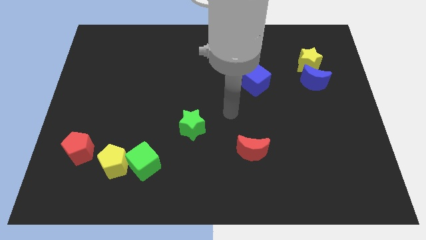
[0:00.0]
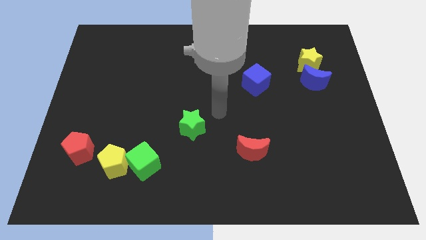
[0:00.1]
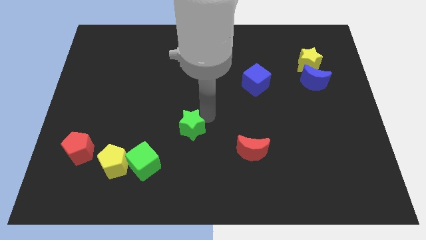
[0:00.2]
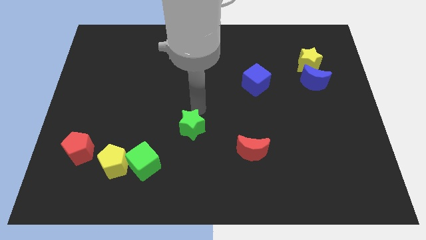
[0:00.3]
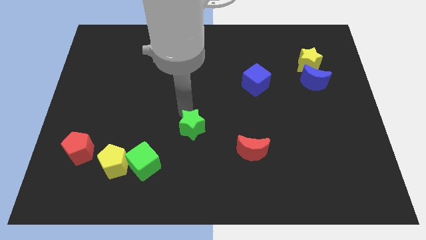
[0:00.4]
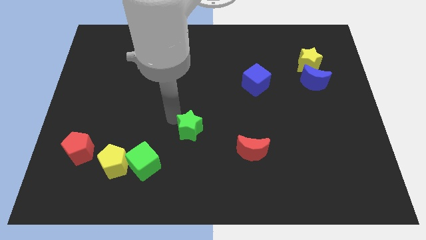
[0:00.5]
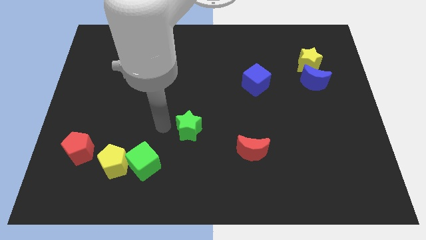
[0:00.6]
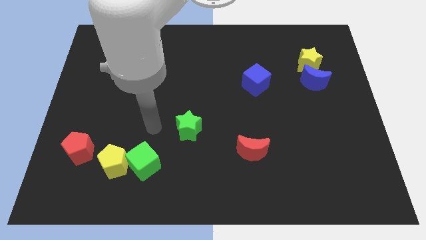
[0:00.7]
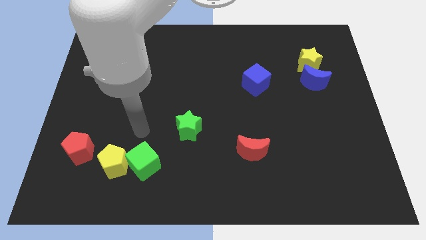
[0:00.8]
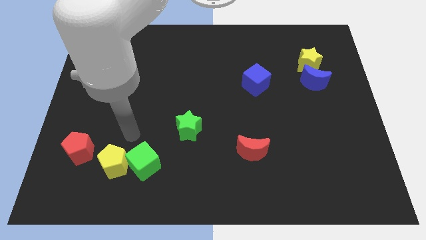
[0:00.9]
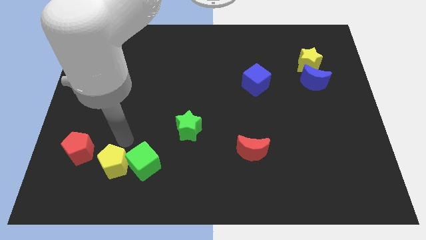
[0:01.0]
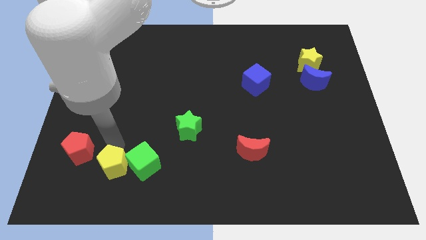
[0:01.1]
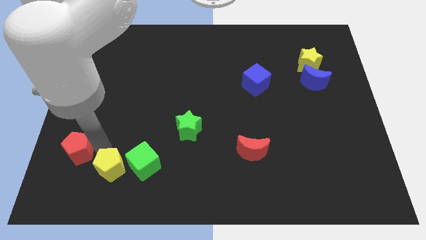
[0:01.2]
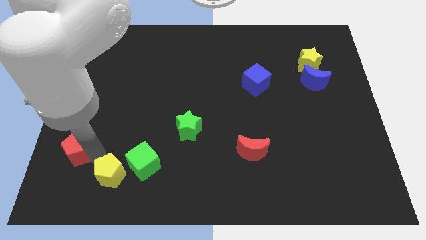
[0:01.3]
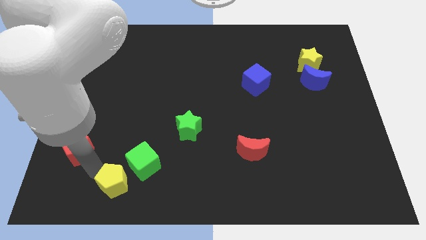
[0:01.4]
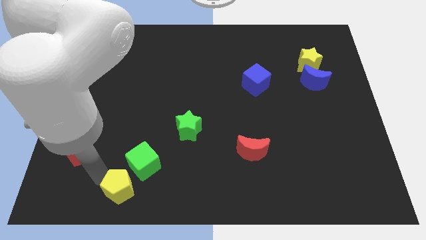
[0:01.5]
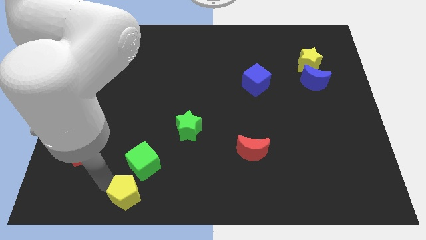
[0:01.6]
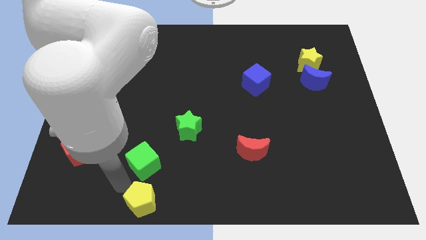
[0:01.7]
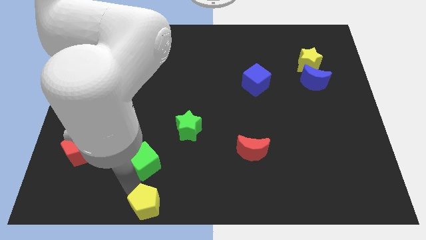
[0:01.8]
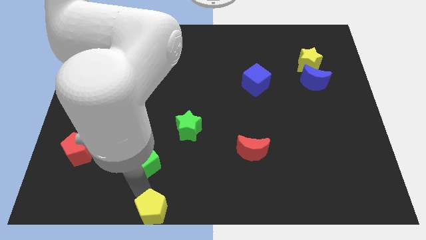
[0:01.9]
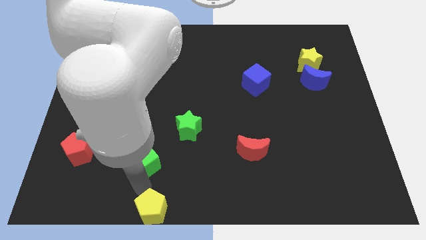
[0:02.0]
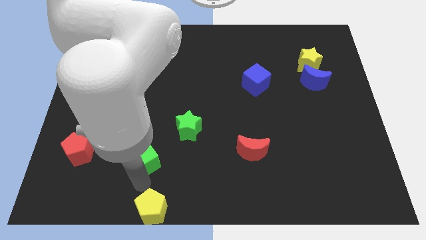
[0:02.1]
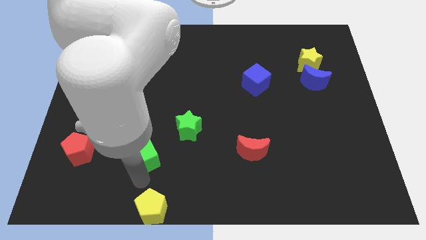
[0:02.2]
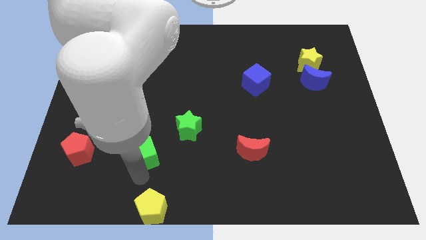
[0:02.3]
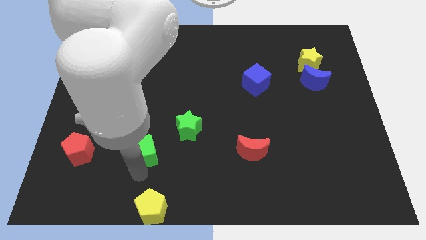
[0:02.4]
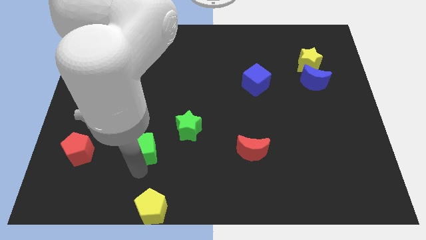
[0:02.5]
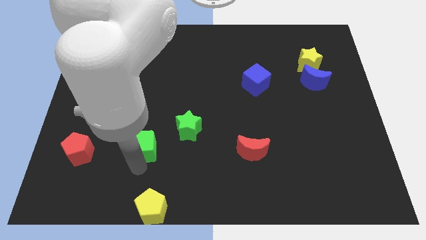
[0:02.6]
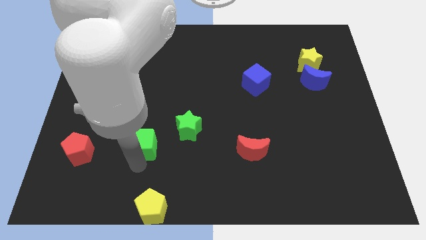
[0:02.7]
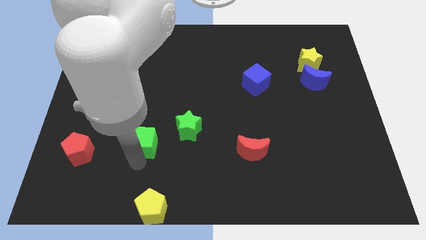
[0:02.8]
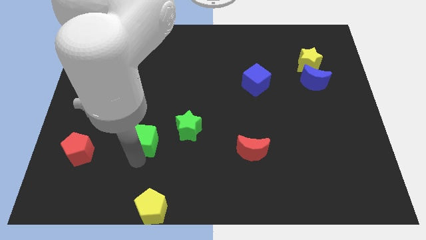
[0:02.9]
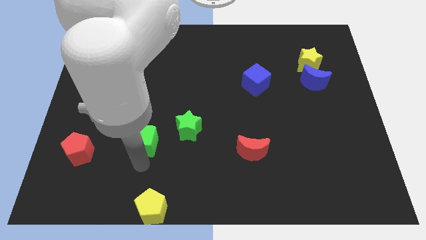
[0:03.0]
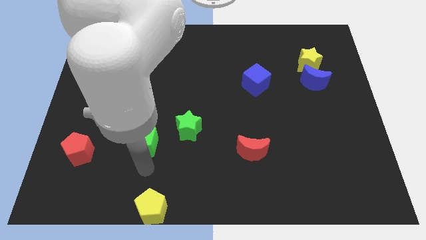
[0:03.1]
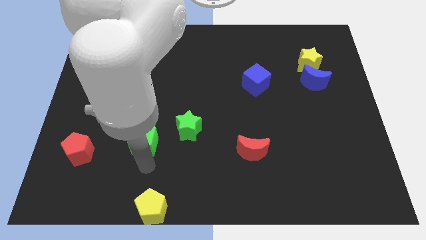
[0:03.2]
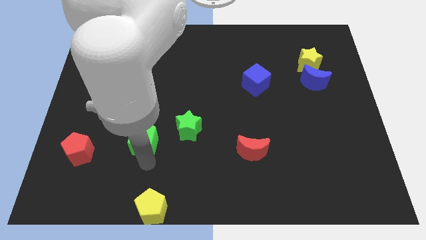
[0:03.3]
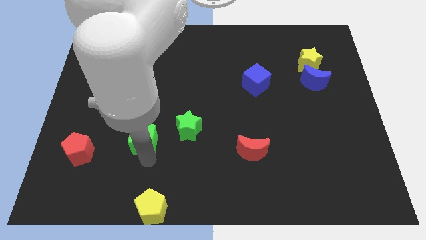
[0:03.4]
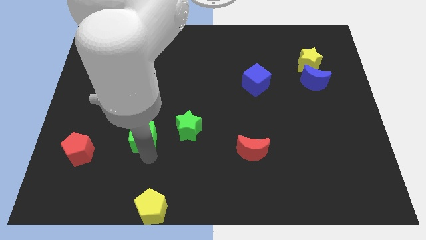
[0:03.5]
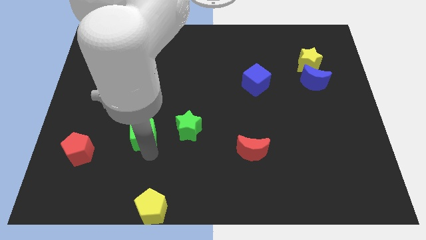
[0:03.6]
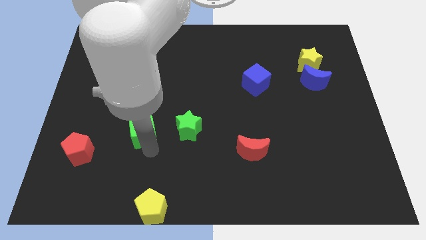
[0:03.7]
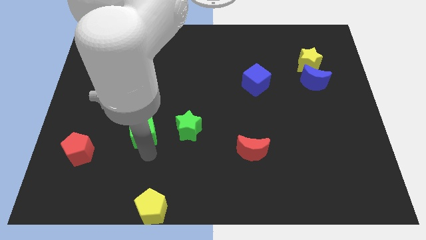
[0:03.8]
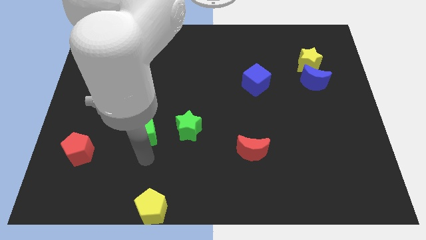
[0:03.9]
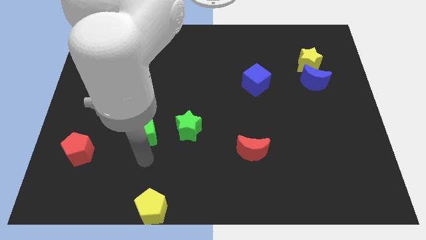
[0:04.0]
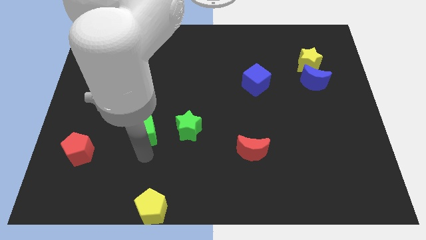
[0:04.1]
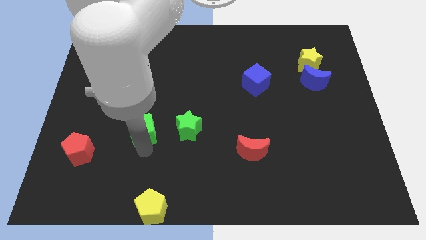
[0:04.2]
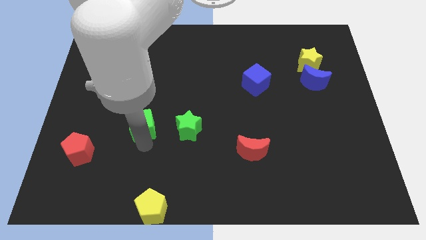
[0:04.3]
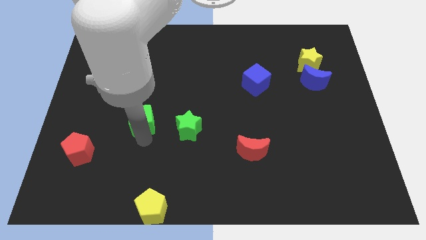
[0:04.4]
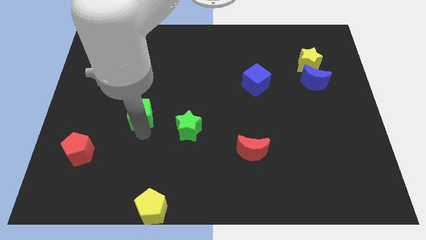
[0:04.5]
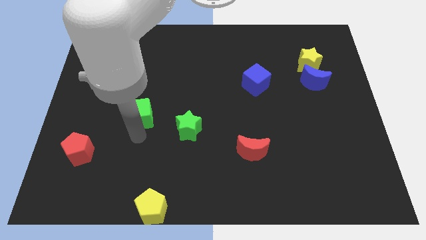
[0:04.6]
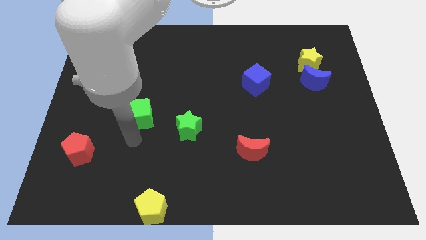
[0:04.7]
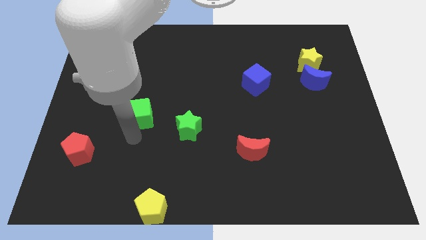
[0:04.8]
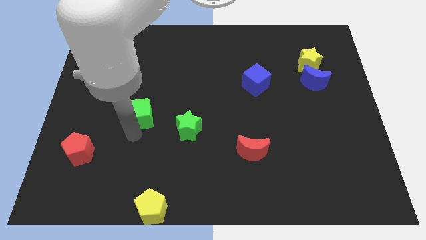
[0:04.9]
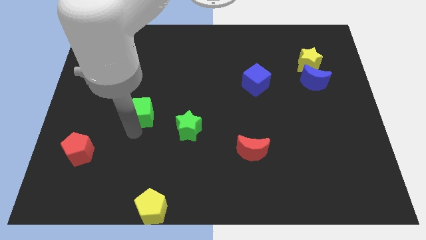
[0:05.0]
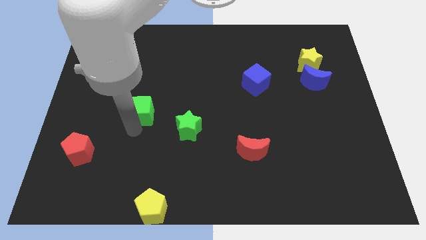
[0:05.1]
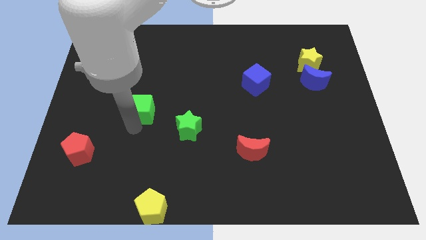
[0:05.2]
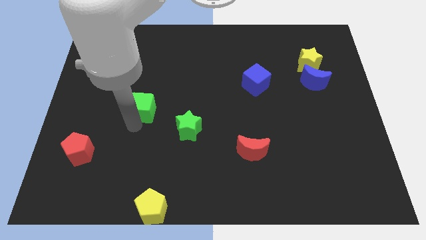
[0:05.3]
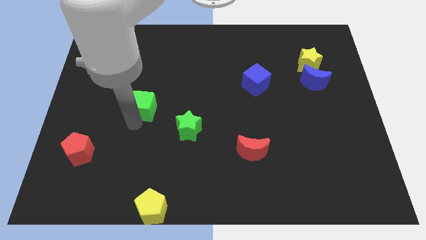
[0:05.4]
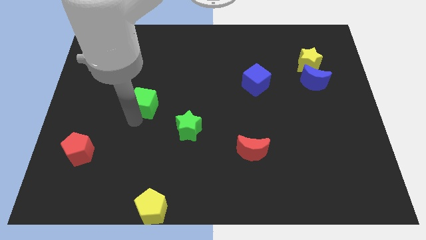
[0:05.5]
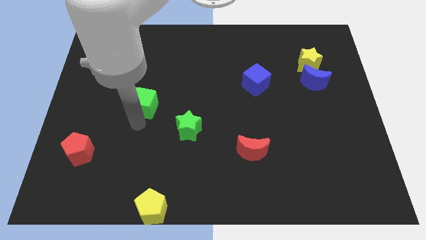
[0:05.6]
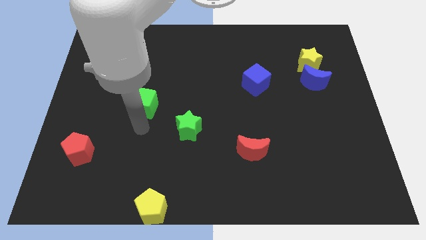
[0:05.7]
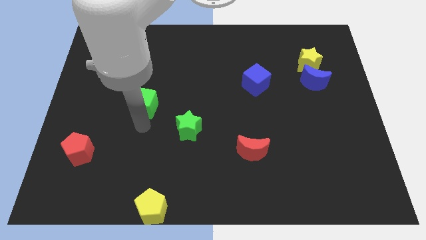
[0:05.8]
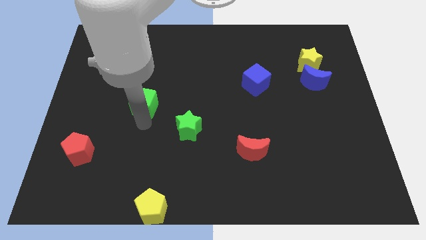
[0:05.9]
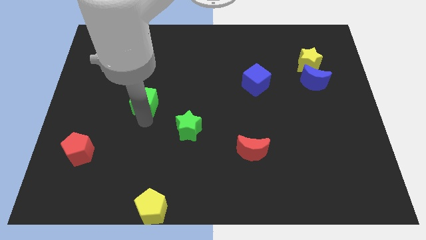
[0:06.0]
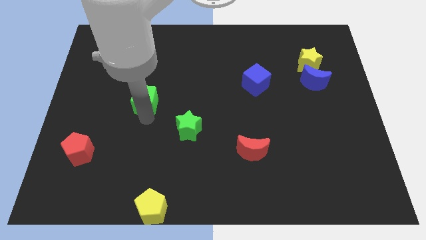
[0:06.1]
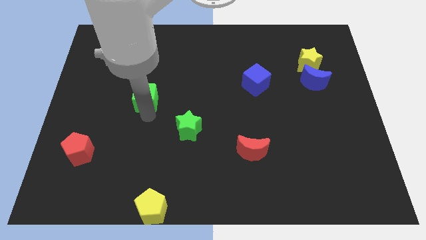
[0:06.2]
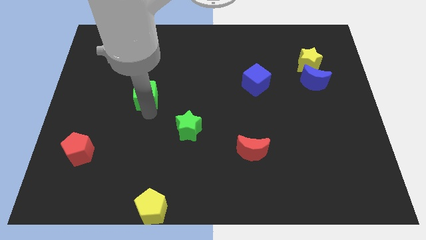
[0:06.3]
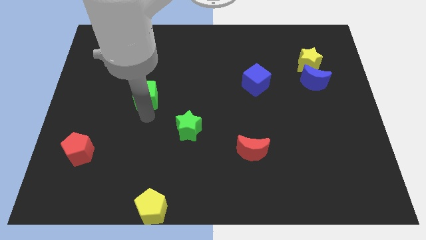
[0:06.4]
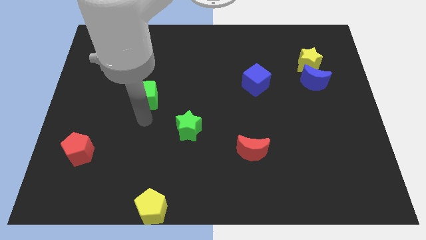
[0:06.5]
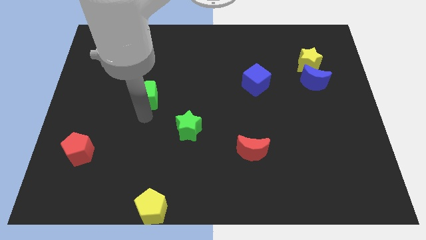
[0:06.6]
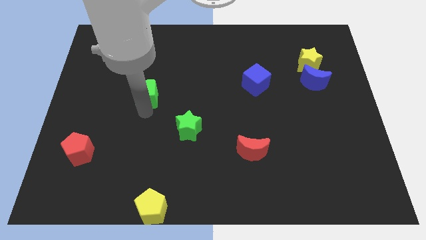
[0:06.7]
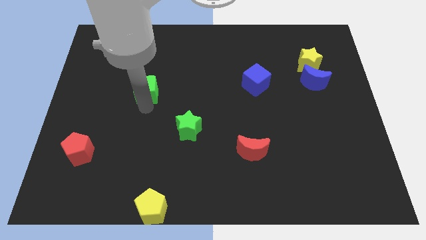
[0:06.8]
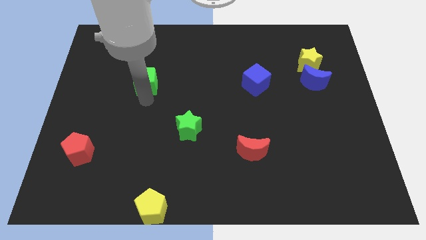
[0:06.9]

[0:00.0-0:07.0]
move the green cube upwards

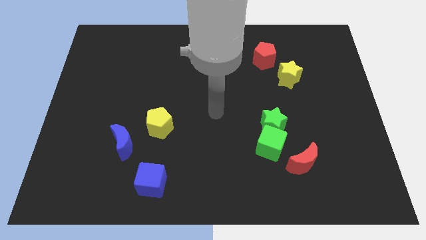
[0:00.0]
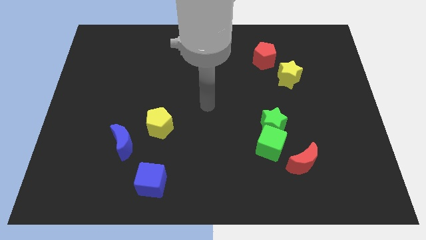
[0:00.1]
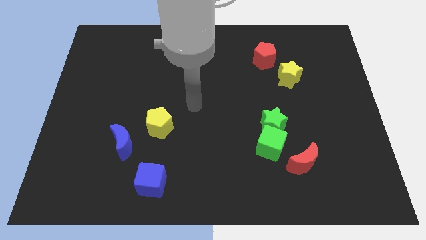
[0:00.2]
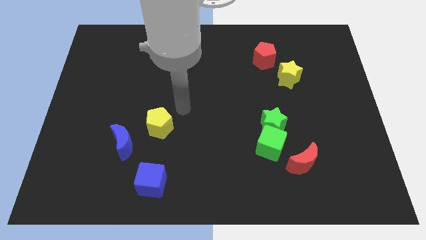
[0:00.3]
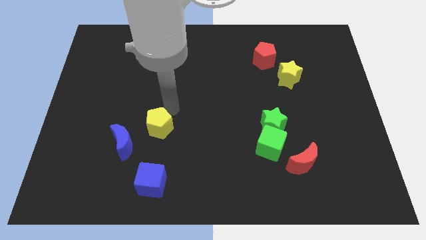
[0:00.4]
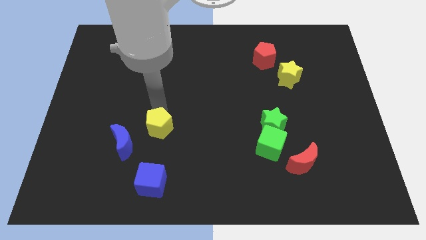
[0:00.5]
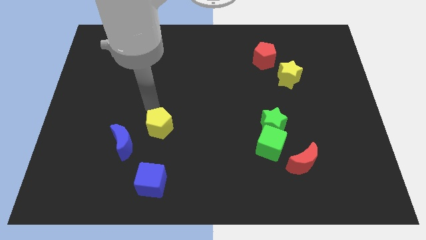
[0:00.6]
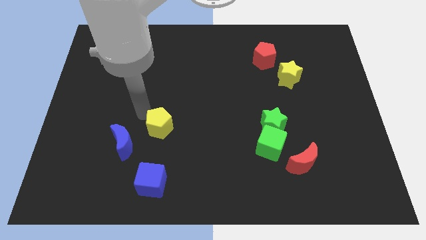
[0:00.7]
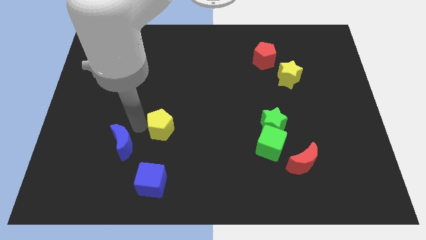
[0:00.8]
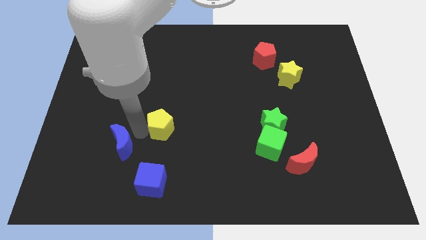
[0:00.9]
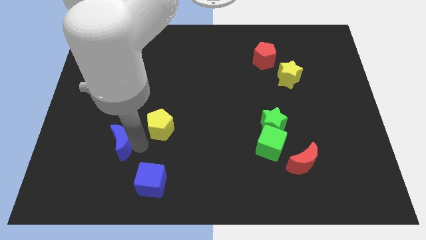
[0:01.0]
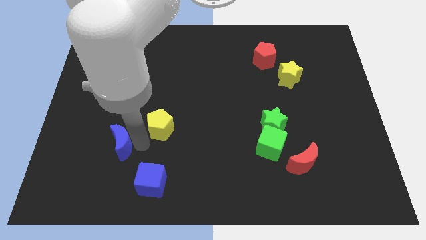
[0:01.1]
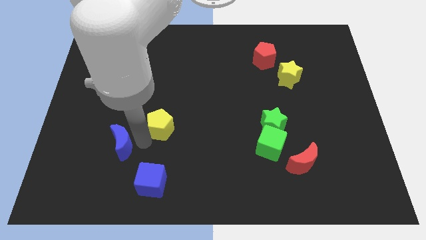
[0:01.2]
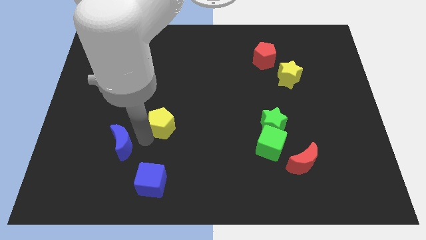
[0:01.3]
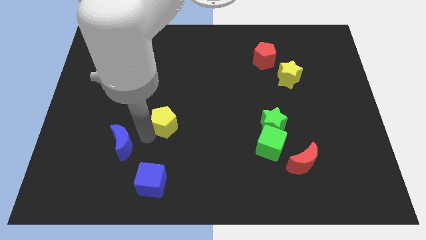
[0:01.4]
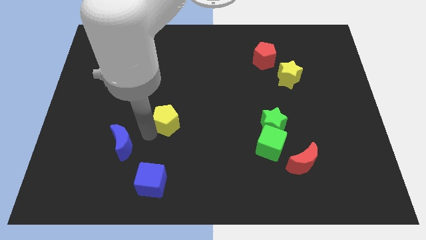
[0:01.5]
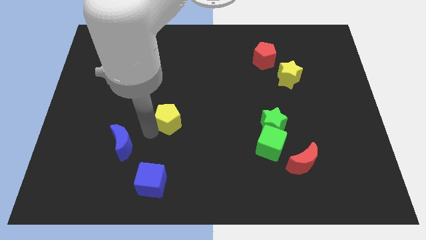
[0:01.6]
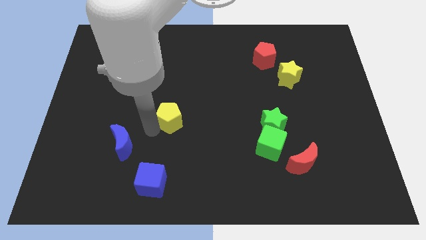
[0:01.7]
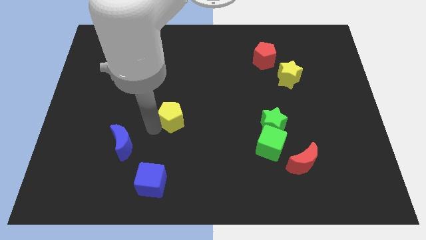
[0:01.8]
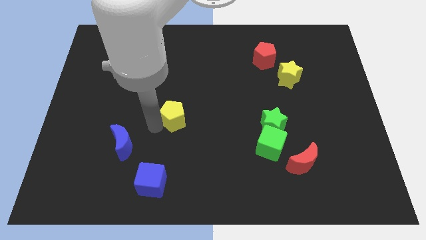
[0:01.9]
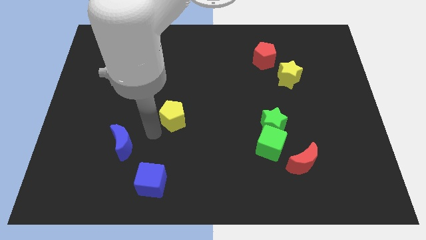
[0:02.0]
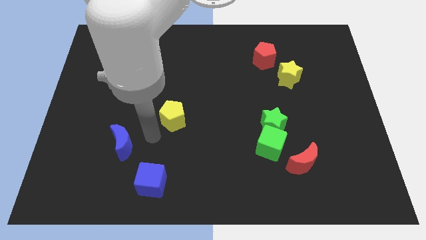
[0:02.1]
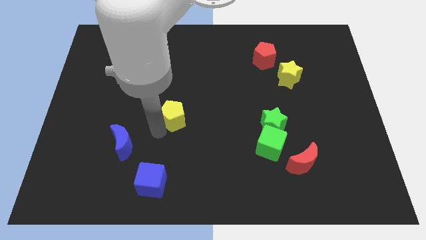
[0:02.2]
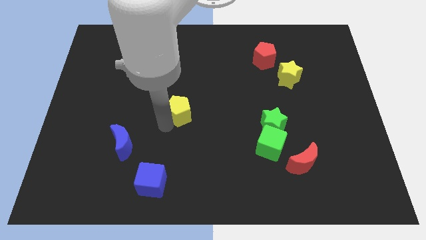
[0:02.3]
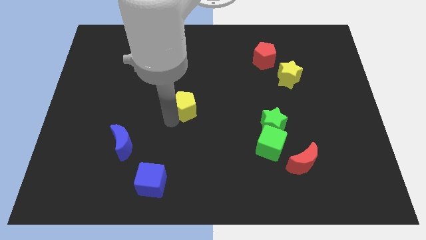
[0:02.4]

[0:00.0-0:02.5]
slightly move the yellow pentagon up and right
